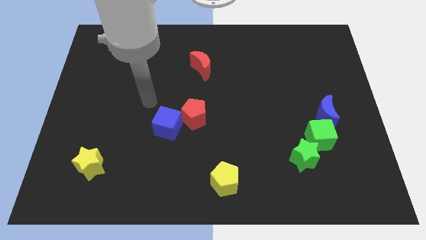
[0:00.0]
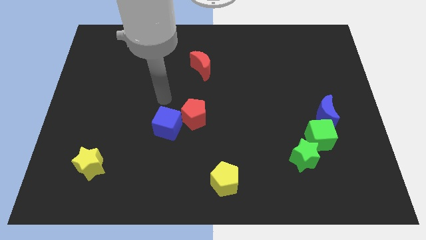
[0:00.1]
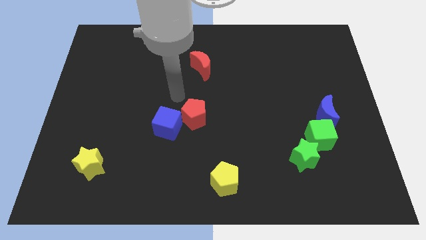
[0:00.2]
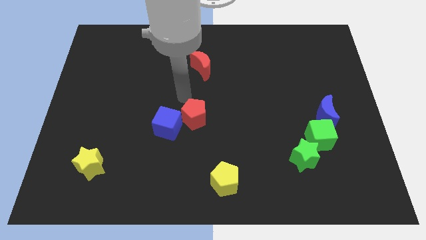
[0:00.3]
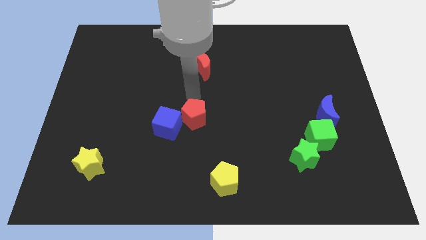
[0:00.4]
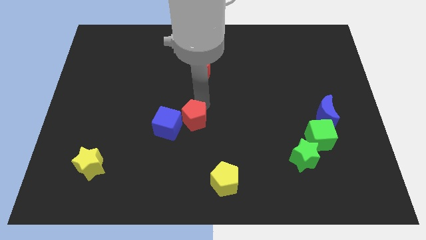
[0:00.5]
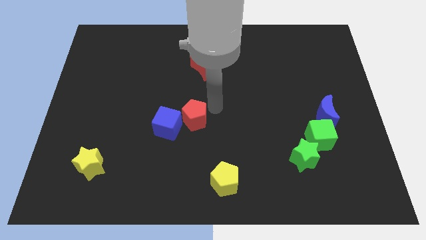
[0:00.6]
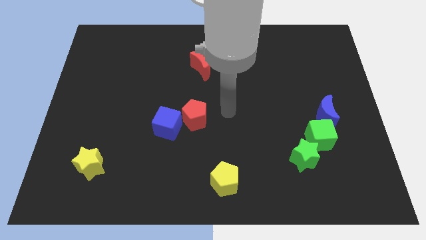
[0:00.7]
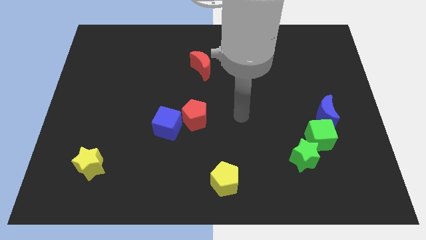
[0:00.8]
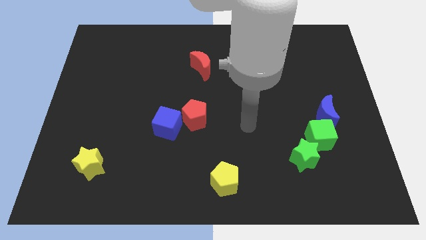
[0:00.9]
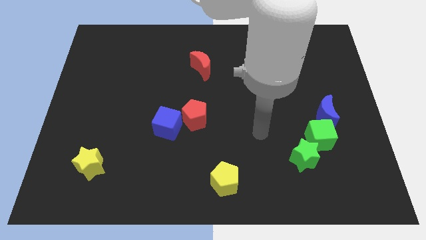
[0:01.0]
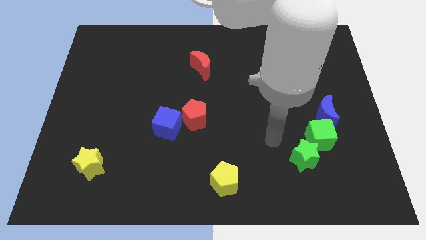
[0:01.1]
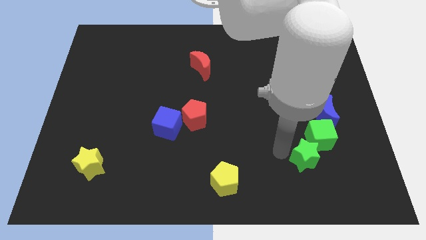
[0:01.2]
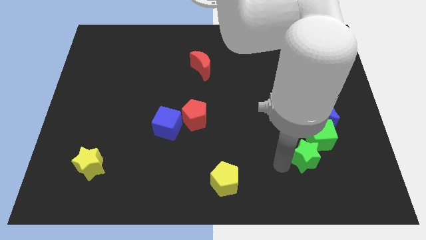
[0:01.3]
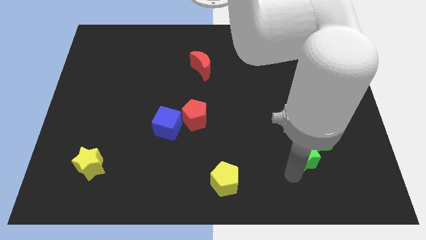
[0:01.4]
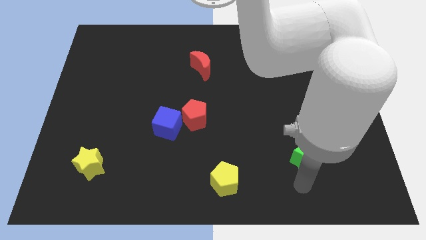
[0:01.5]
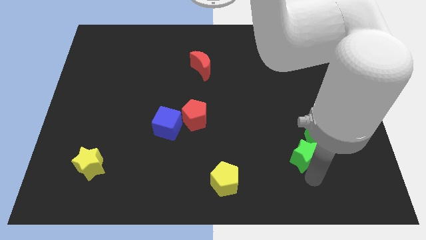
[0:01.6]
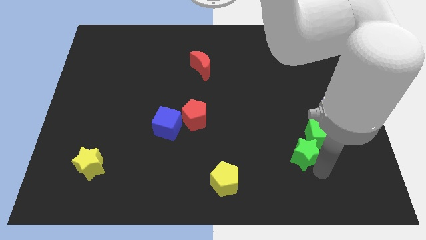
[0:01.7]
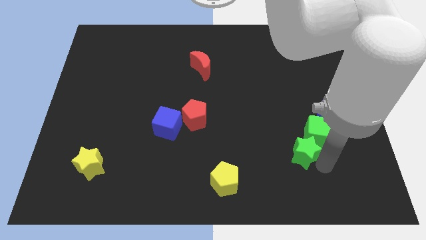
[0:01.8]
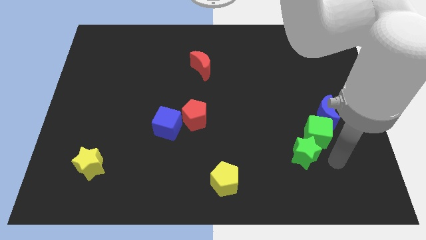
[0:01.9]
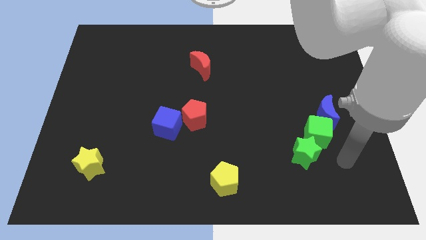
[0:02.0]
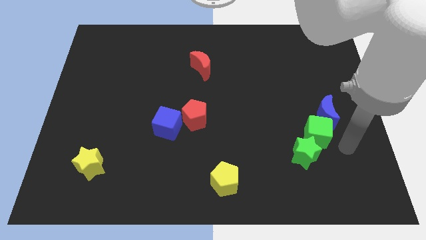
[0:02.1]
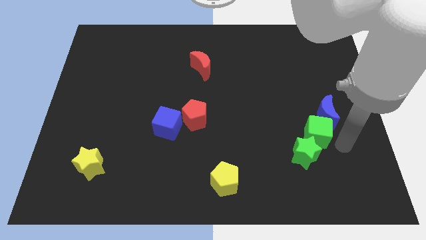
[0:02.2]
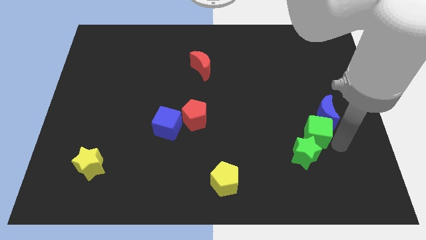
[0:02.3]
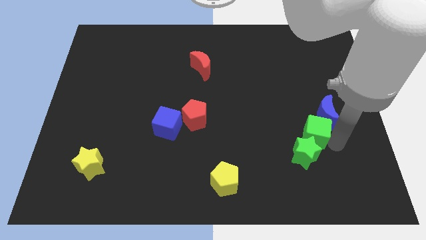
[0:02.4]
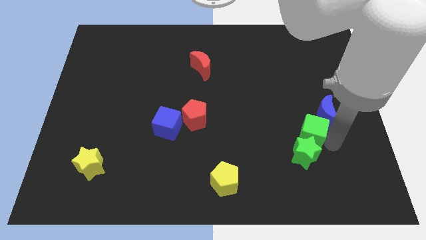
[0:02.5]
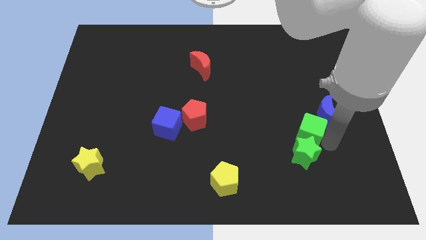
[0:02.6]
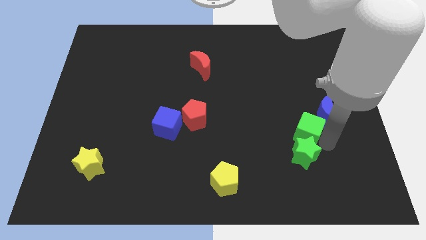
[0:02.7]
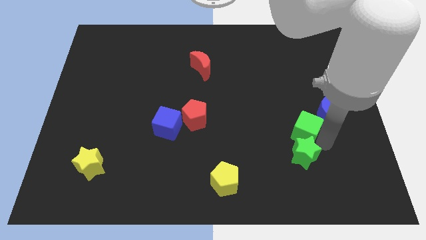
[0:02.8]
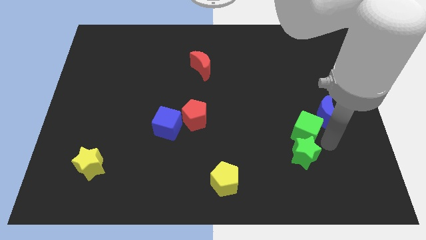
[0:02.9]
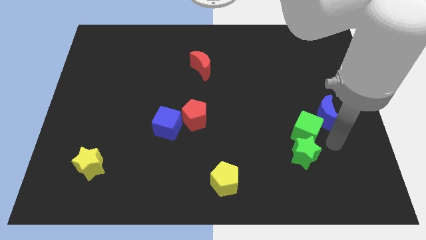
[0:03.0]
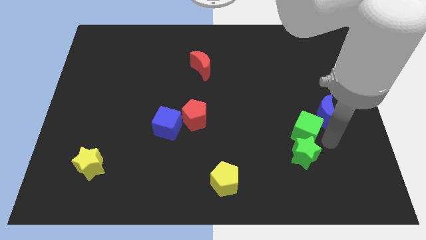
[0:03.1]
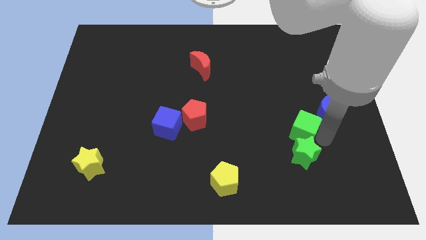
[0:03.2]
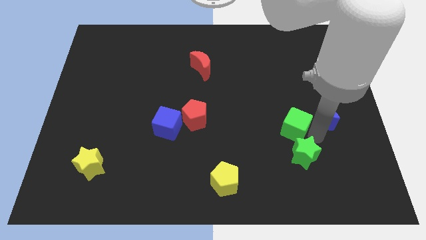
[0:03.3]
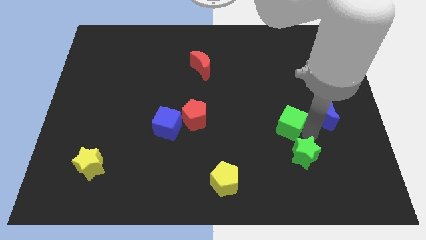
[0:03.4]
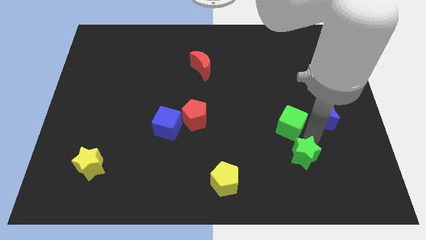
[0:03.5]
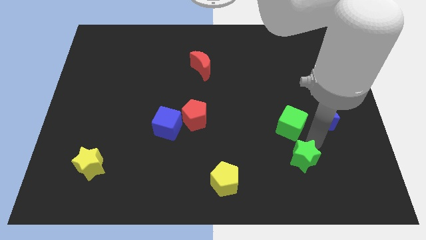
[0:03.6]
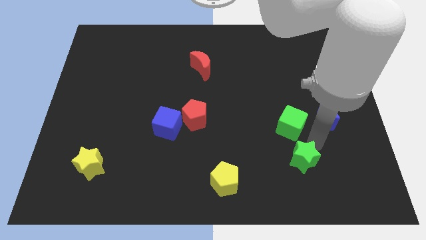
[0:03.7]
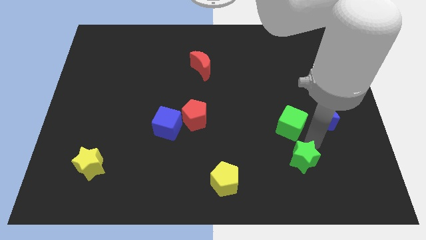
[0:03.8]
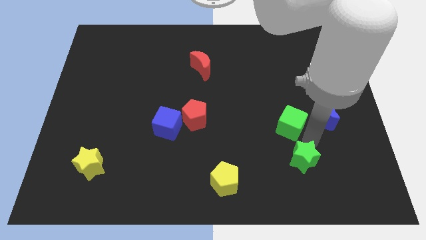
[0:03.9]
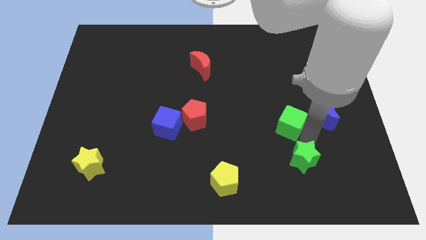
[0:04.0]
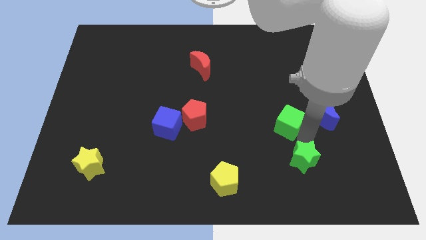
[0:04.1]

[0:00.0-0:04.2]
slightly push the green cube up and then left

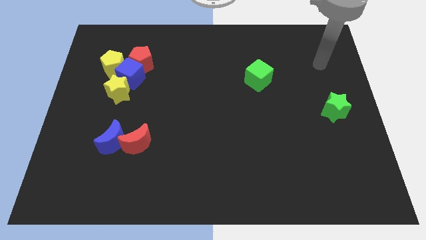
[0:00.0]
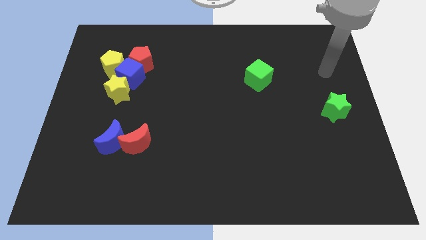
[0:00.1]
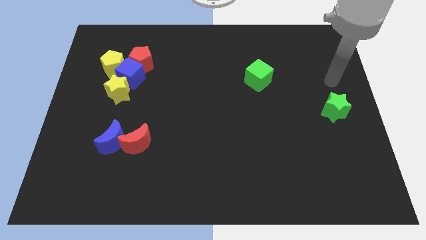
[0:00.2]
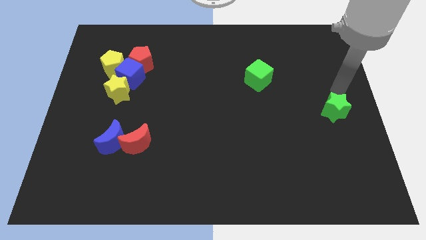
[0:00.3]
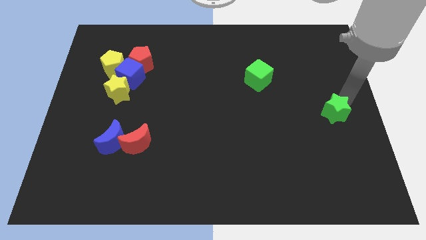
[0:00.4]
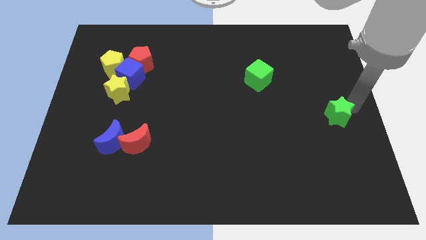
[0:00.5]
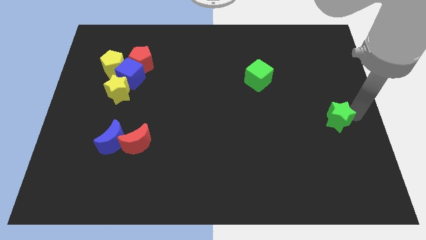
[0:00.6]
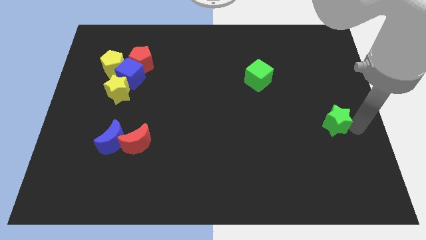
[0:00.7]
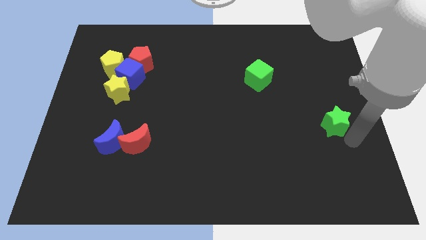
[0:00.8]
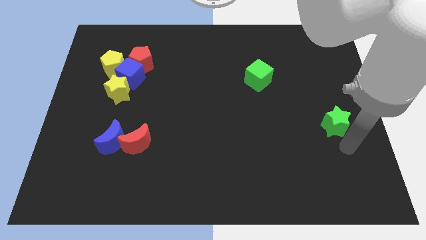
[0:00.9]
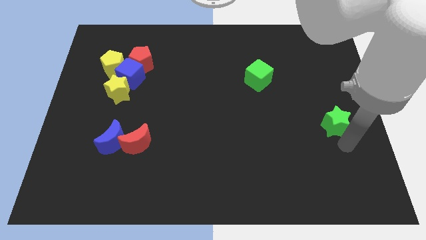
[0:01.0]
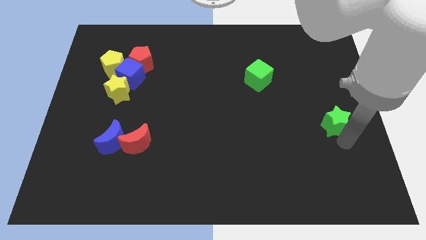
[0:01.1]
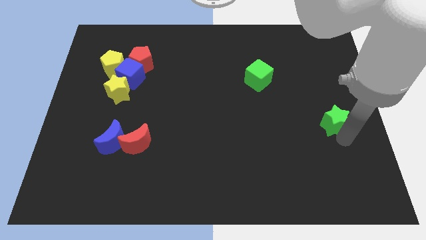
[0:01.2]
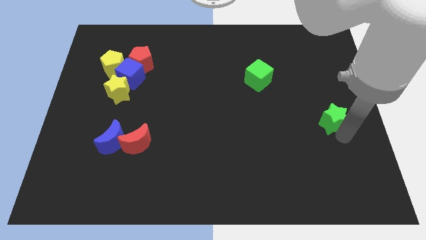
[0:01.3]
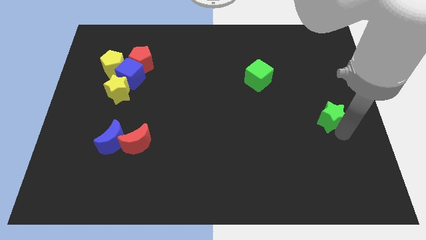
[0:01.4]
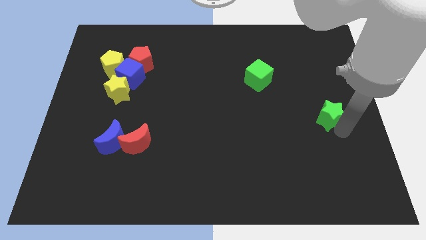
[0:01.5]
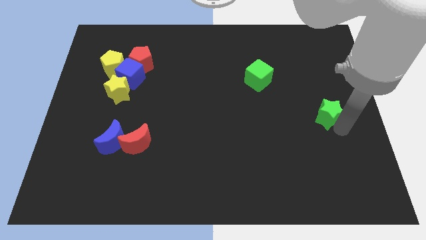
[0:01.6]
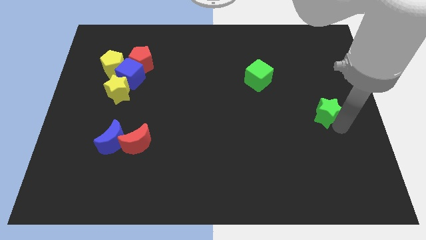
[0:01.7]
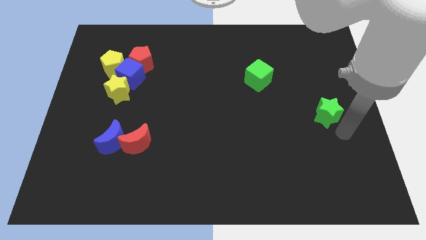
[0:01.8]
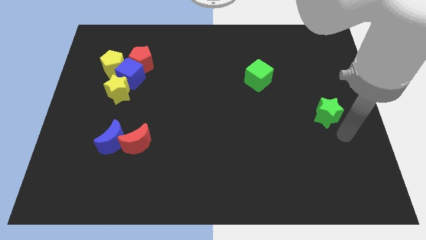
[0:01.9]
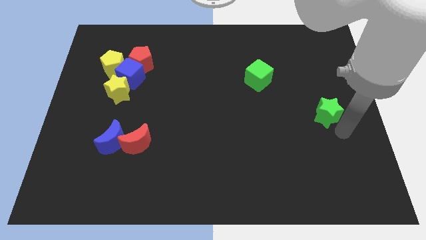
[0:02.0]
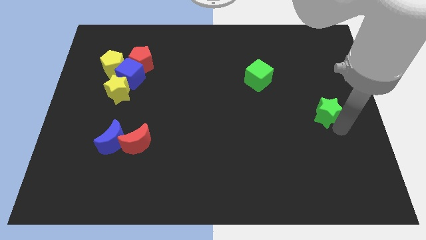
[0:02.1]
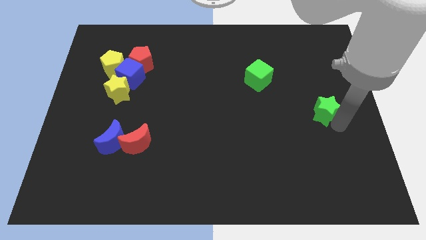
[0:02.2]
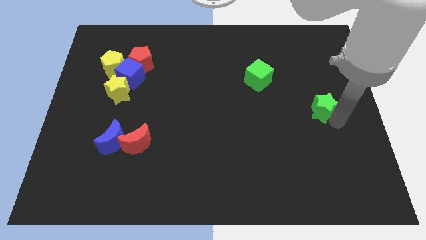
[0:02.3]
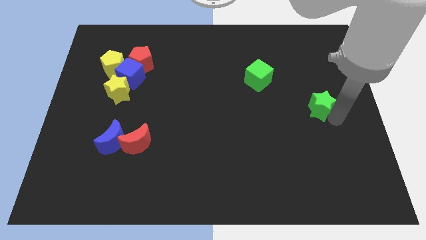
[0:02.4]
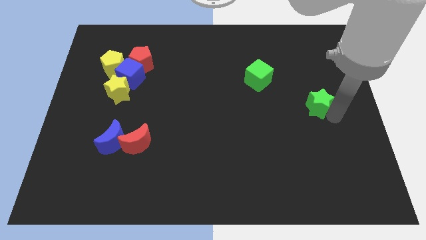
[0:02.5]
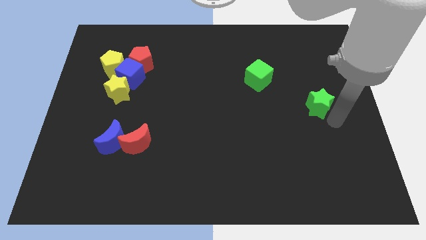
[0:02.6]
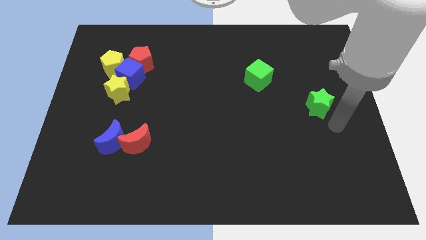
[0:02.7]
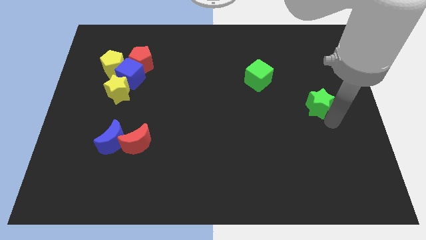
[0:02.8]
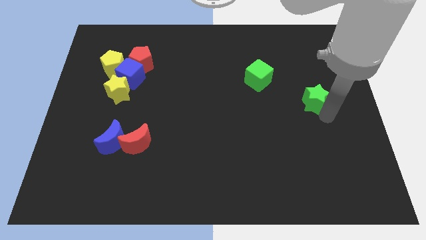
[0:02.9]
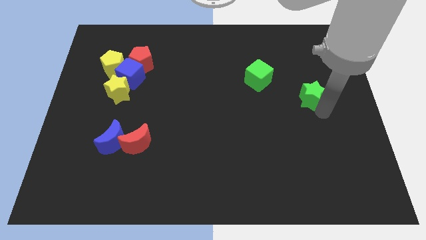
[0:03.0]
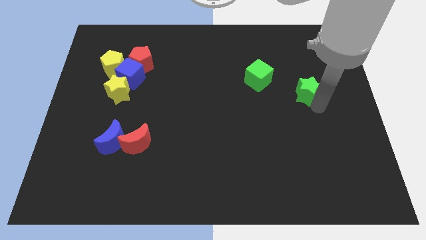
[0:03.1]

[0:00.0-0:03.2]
slide the green star upwards and left slightly

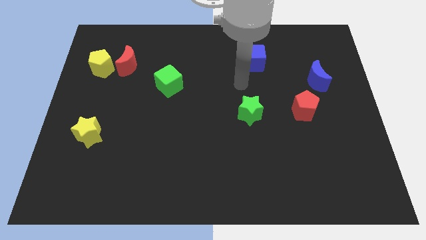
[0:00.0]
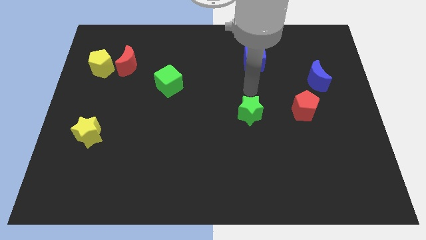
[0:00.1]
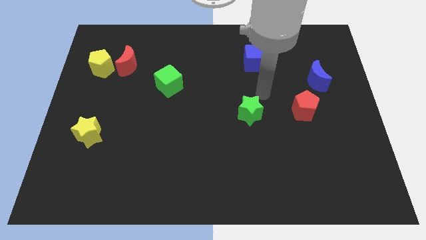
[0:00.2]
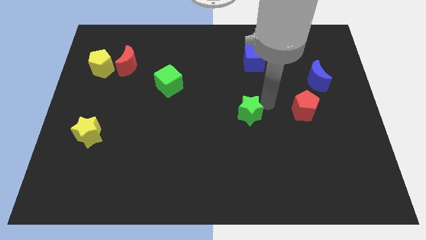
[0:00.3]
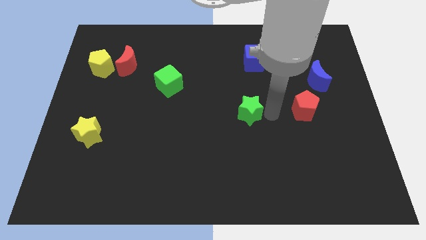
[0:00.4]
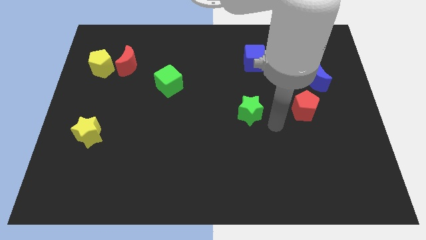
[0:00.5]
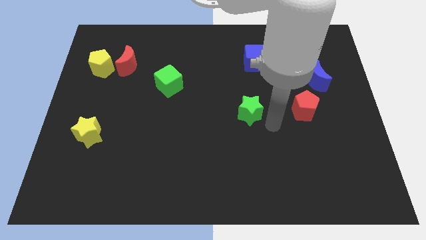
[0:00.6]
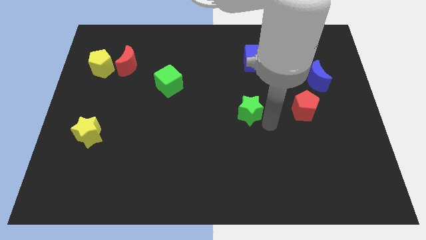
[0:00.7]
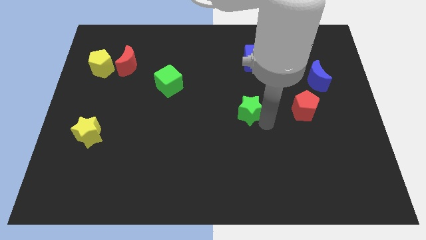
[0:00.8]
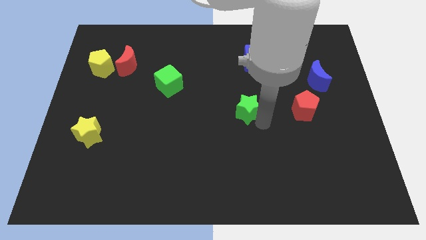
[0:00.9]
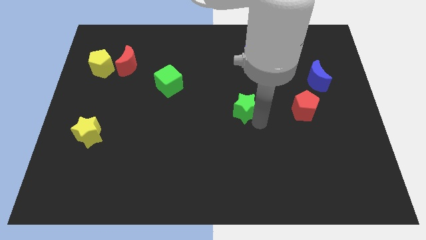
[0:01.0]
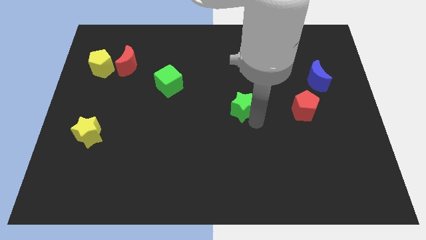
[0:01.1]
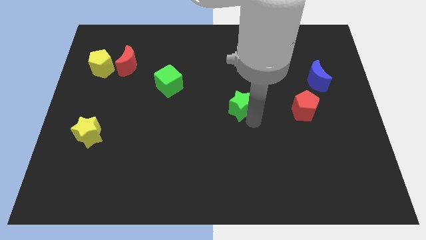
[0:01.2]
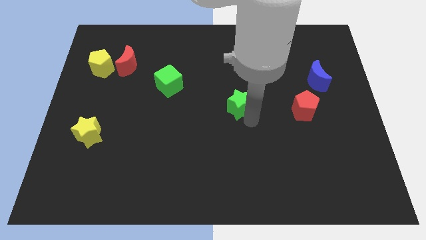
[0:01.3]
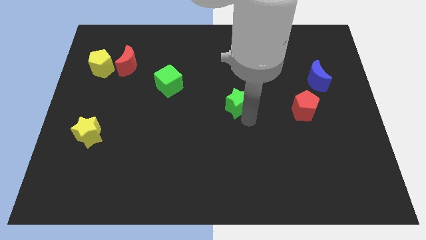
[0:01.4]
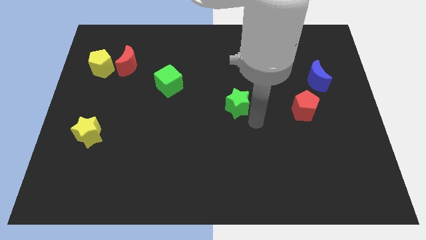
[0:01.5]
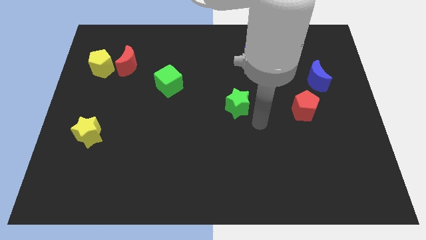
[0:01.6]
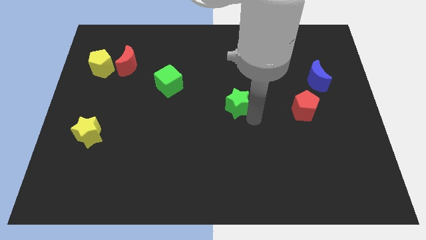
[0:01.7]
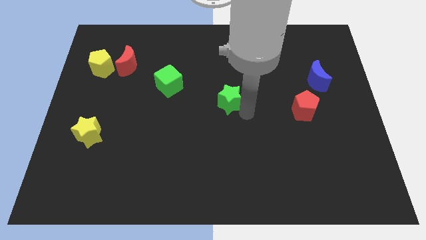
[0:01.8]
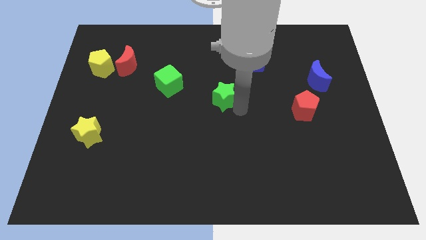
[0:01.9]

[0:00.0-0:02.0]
push the green star upwards and left diagonally slightly
